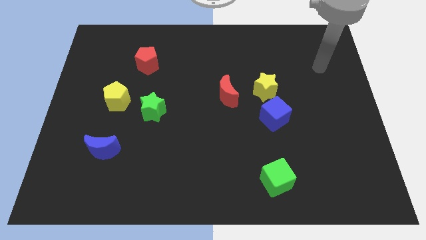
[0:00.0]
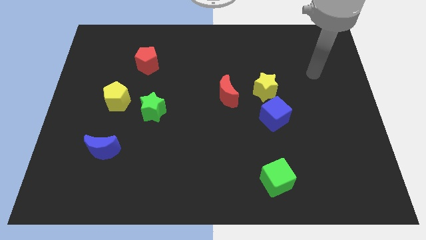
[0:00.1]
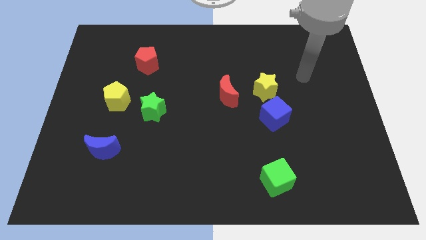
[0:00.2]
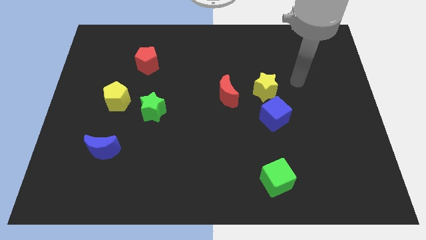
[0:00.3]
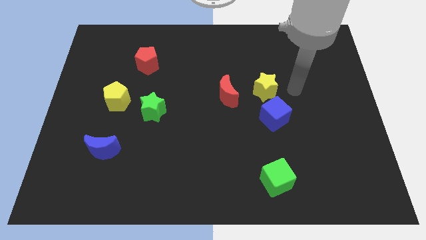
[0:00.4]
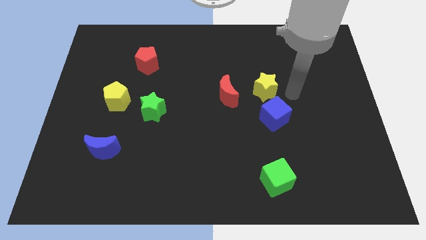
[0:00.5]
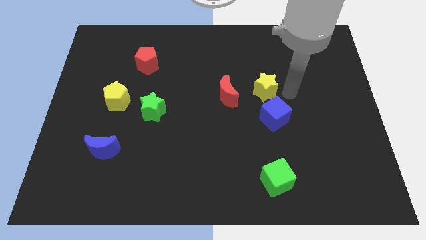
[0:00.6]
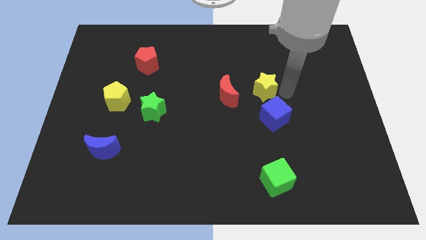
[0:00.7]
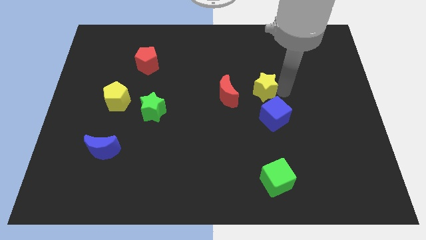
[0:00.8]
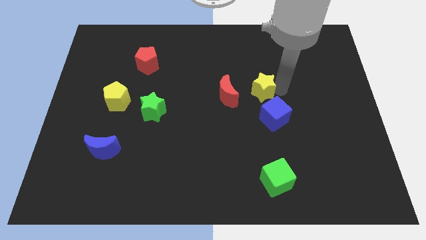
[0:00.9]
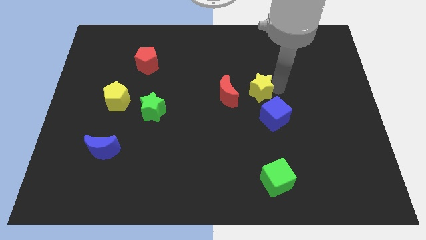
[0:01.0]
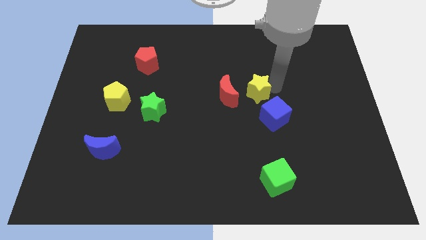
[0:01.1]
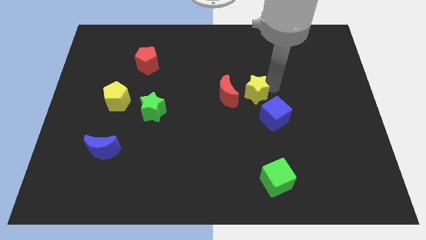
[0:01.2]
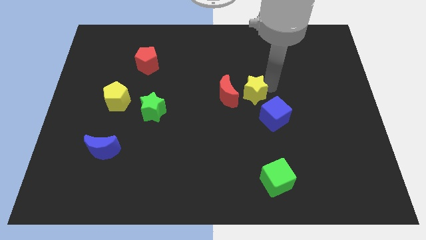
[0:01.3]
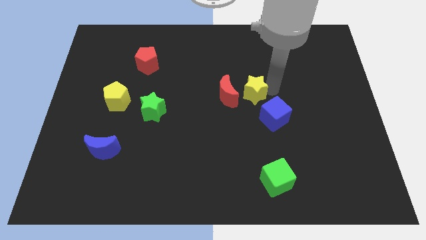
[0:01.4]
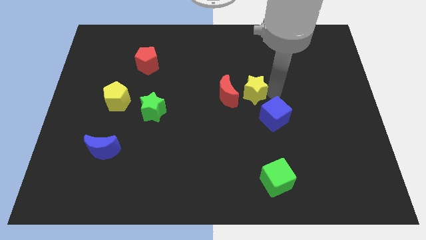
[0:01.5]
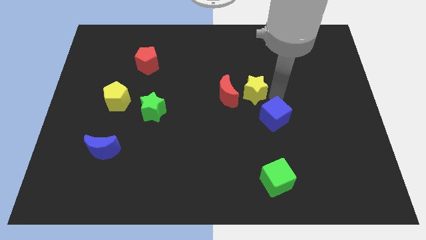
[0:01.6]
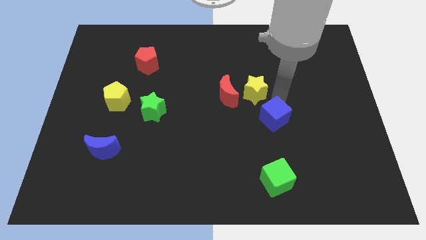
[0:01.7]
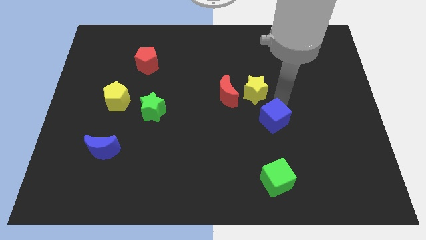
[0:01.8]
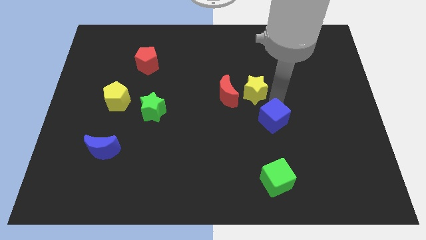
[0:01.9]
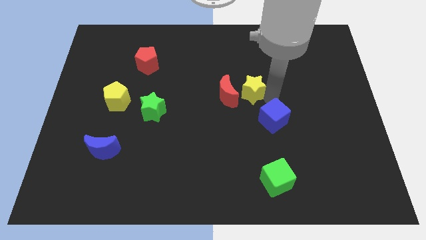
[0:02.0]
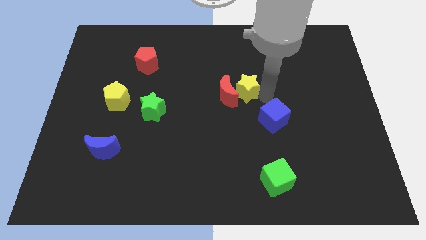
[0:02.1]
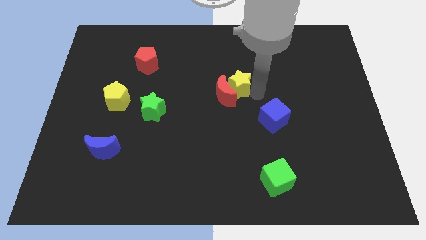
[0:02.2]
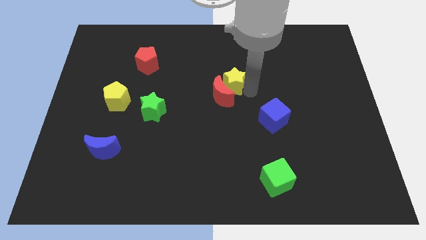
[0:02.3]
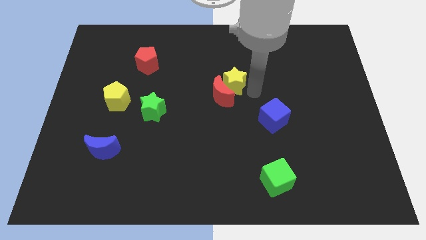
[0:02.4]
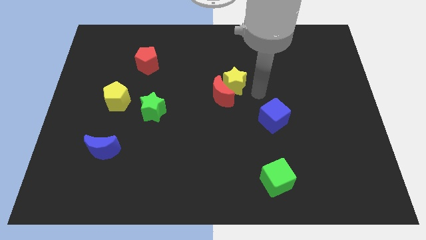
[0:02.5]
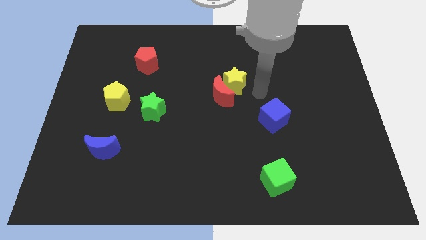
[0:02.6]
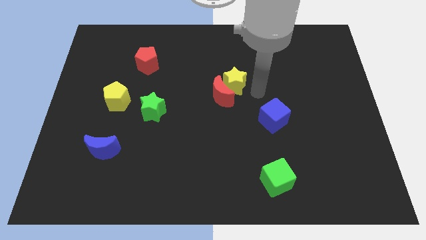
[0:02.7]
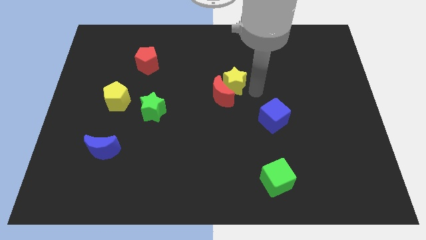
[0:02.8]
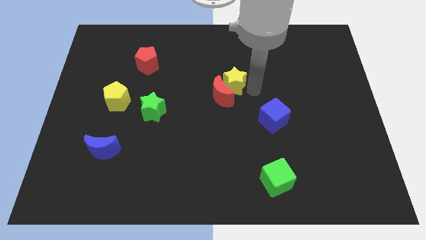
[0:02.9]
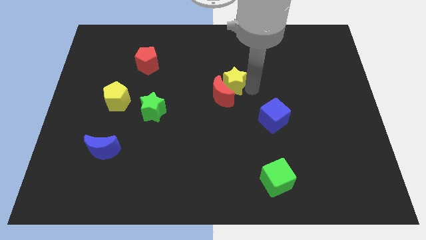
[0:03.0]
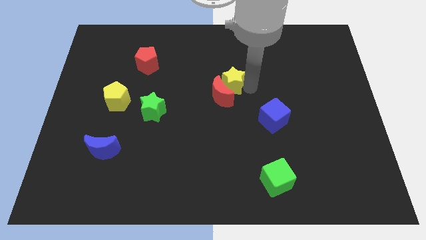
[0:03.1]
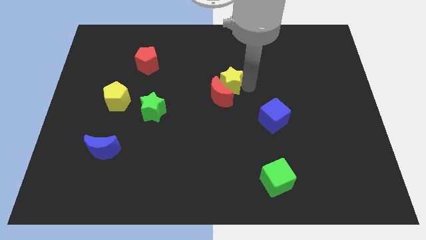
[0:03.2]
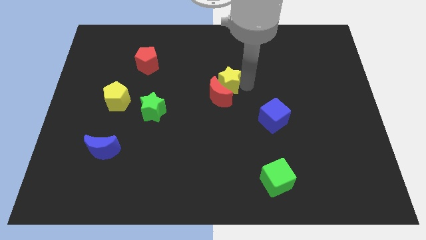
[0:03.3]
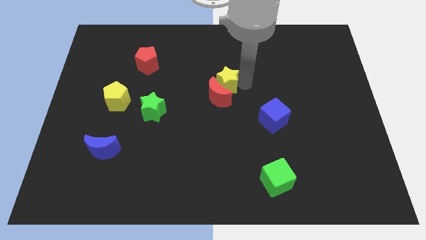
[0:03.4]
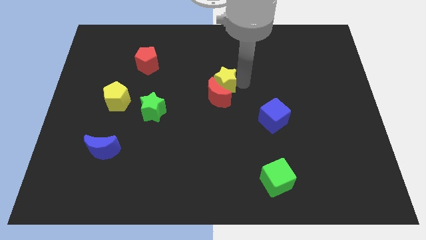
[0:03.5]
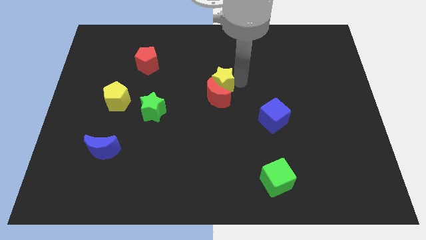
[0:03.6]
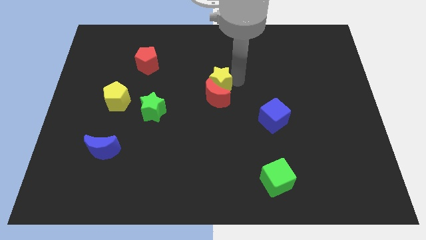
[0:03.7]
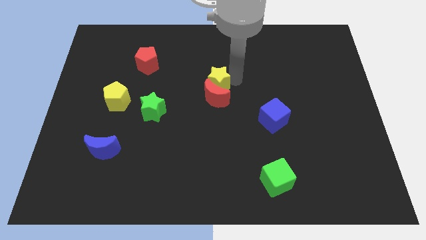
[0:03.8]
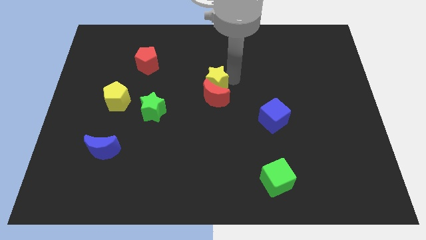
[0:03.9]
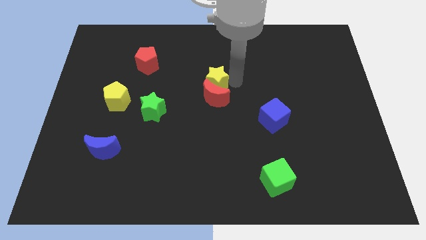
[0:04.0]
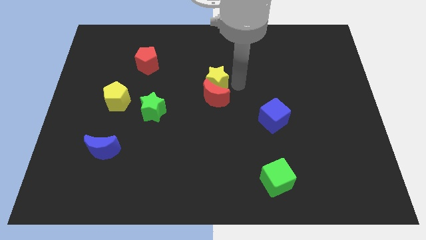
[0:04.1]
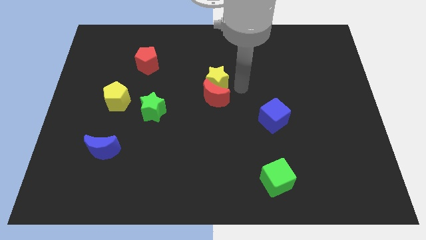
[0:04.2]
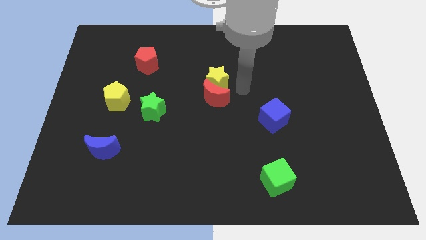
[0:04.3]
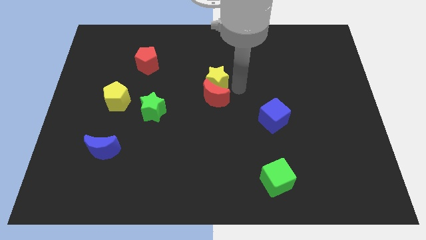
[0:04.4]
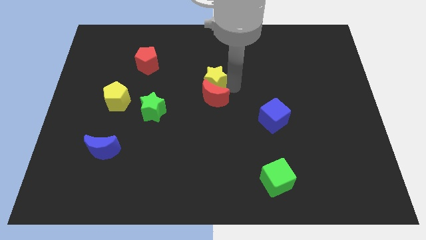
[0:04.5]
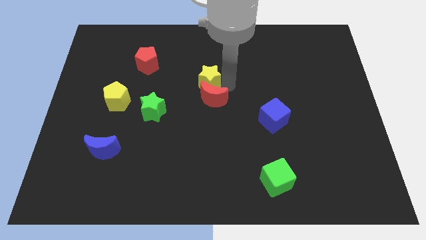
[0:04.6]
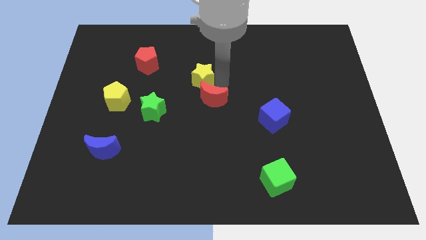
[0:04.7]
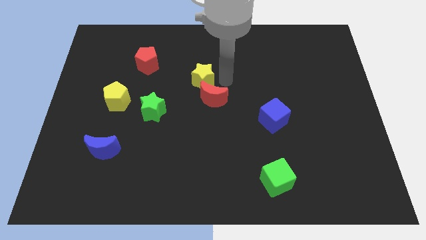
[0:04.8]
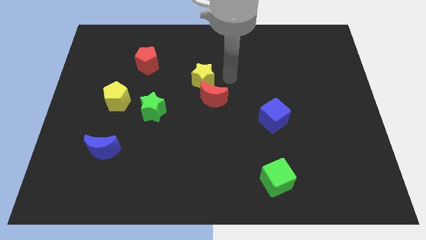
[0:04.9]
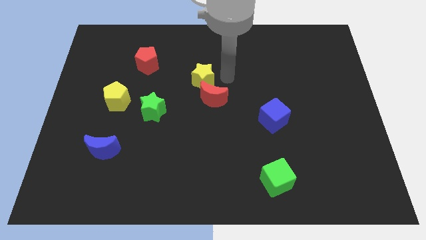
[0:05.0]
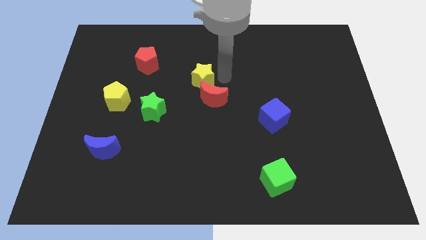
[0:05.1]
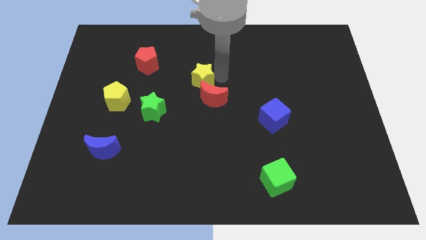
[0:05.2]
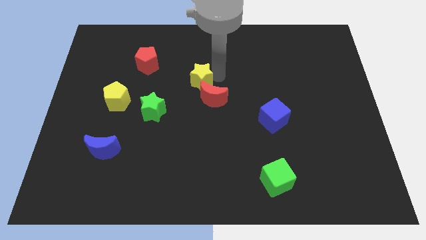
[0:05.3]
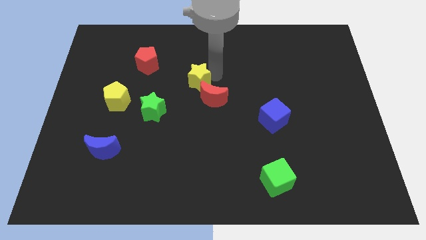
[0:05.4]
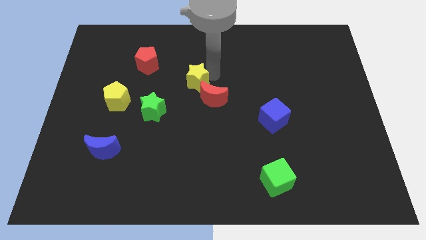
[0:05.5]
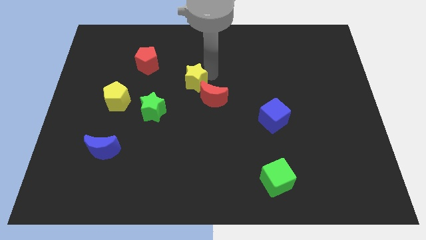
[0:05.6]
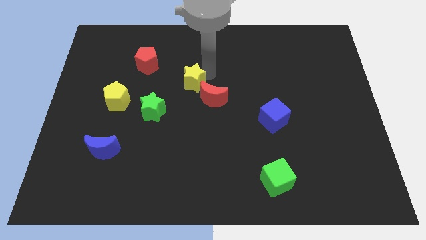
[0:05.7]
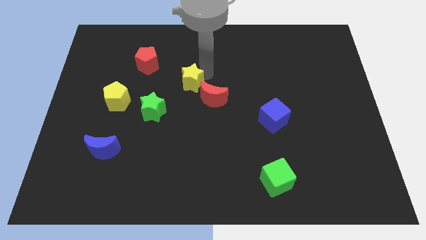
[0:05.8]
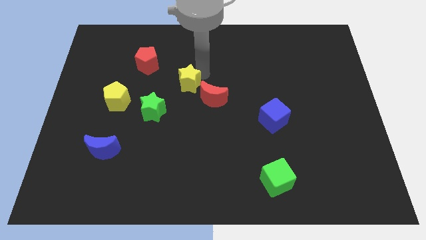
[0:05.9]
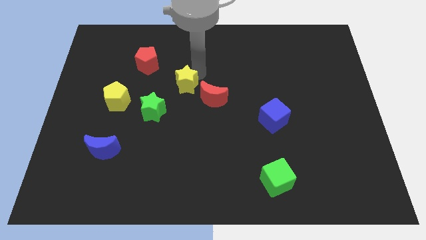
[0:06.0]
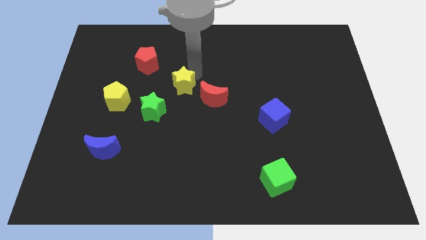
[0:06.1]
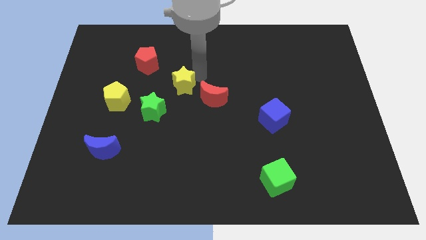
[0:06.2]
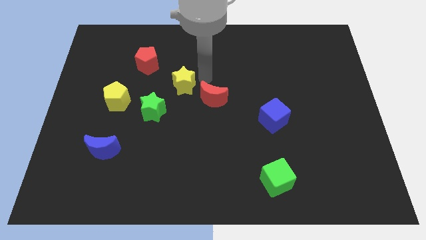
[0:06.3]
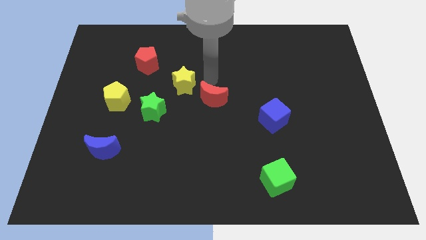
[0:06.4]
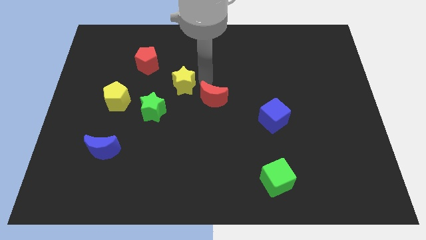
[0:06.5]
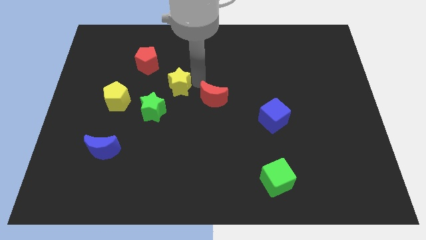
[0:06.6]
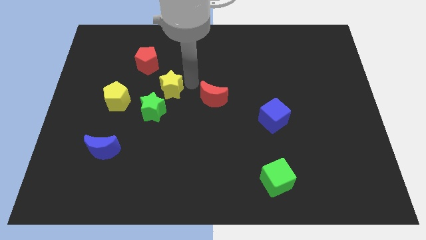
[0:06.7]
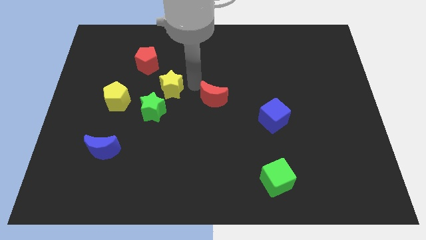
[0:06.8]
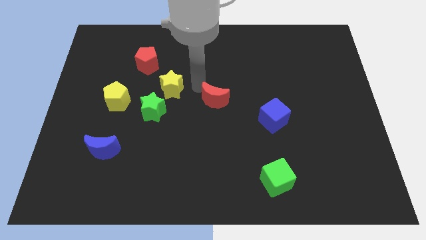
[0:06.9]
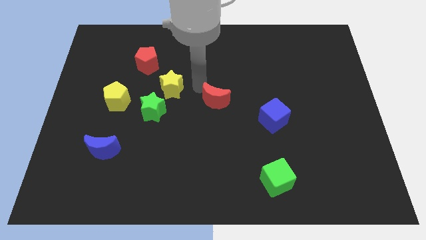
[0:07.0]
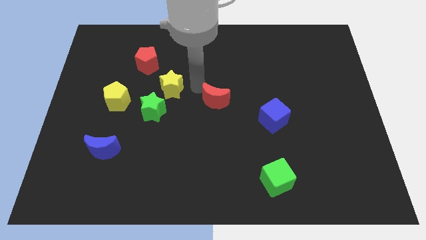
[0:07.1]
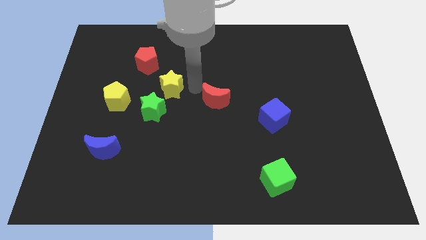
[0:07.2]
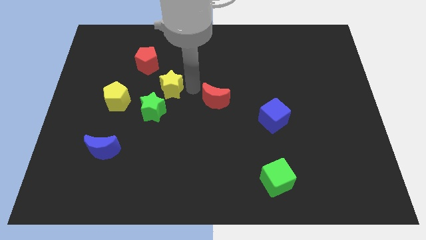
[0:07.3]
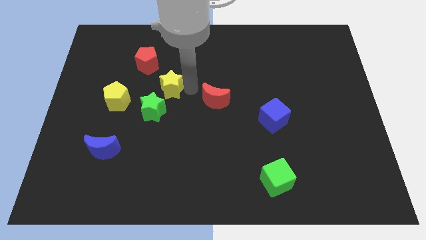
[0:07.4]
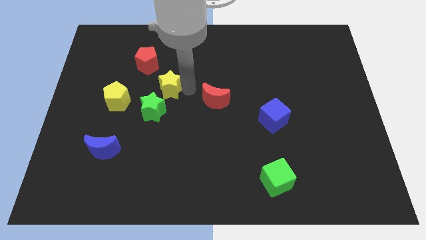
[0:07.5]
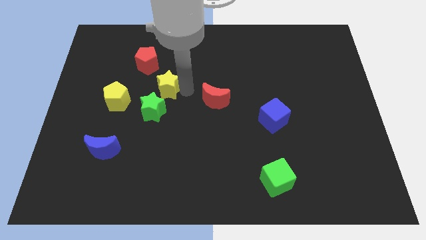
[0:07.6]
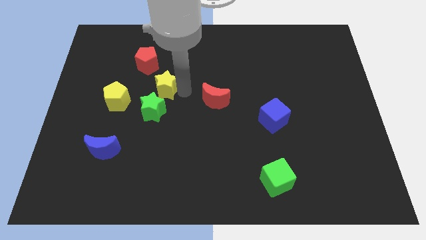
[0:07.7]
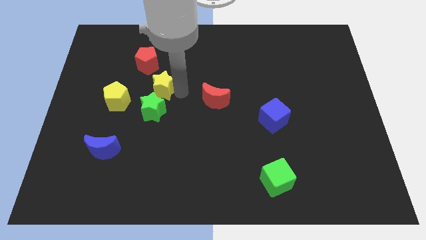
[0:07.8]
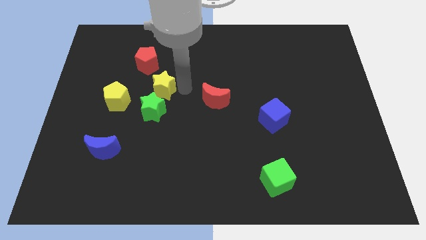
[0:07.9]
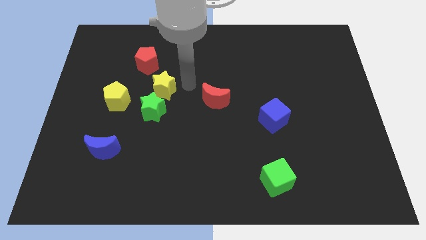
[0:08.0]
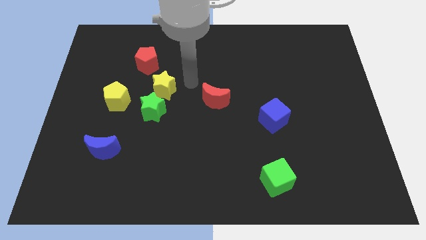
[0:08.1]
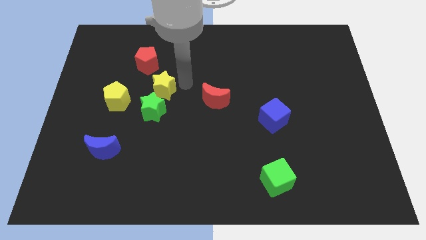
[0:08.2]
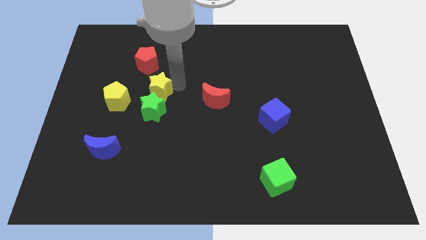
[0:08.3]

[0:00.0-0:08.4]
move the yellow star below the red pentagon
